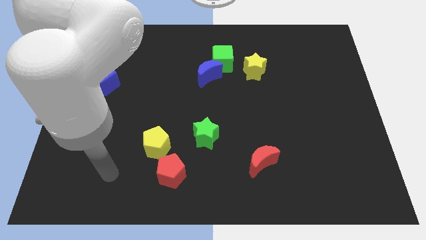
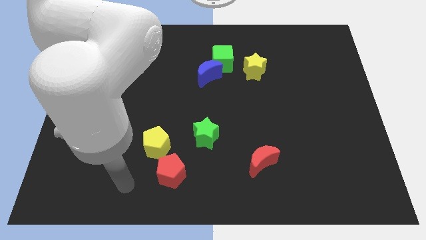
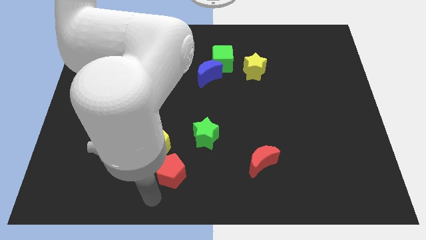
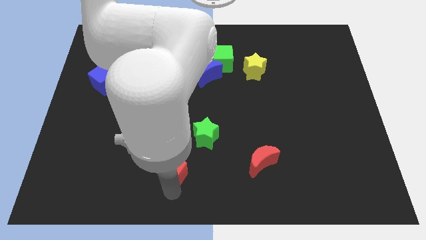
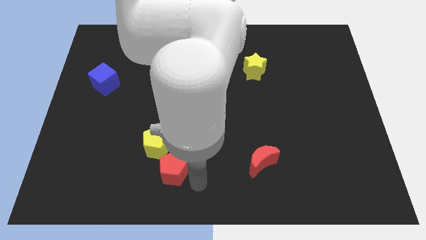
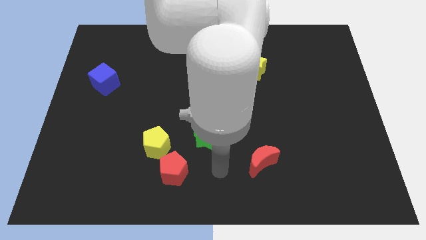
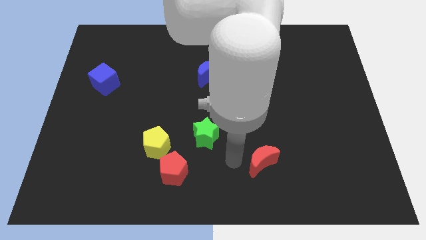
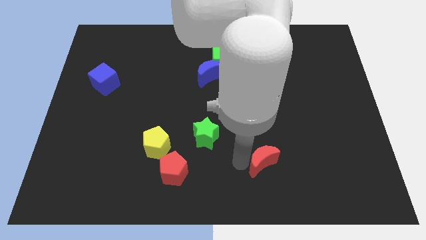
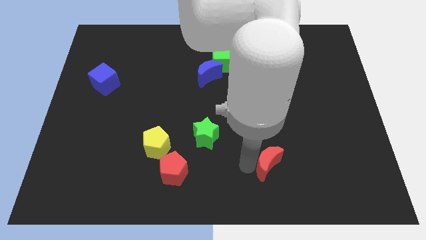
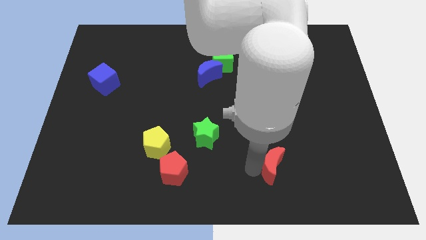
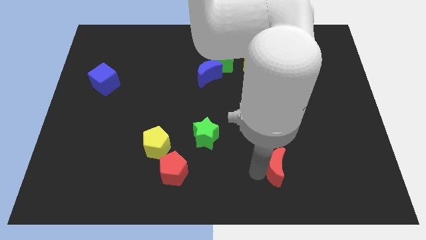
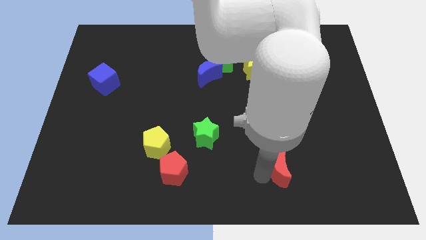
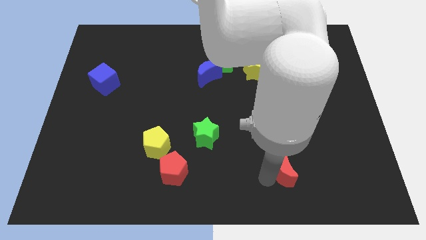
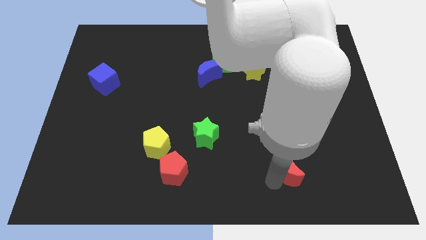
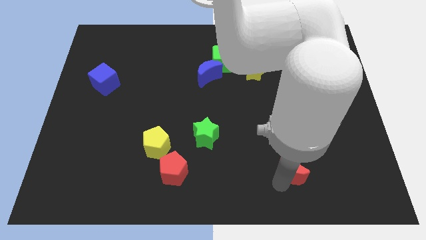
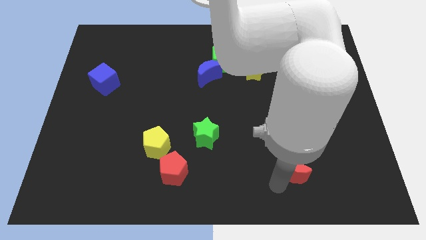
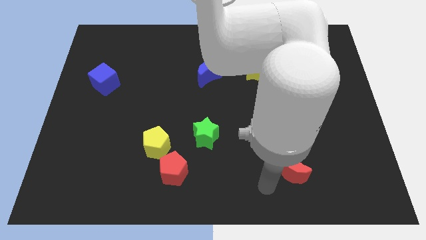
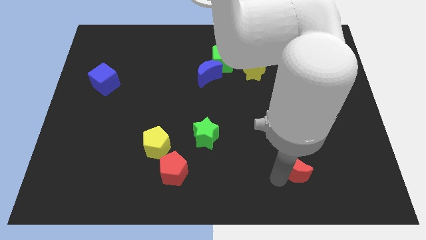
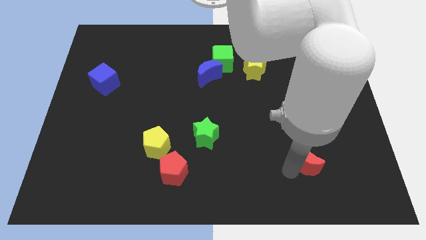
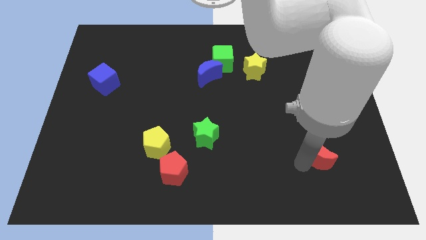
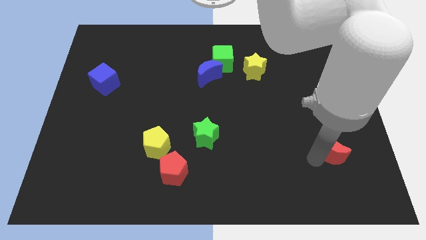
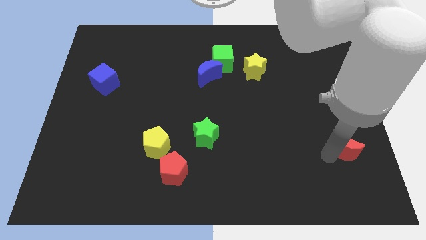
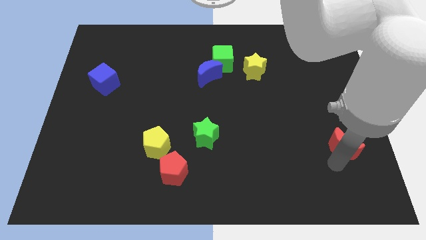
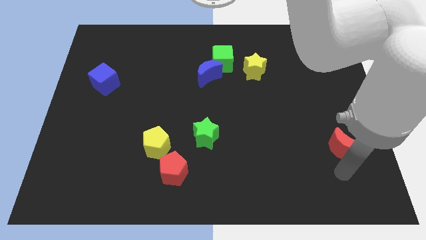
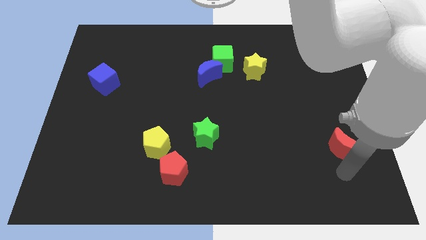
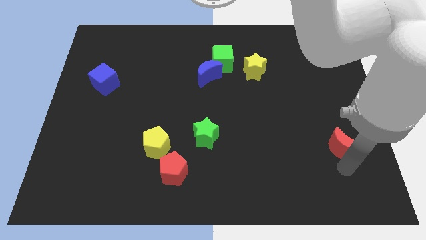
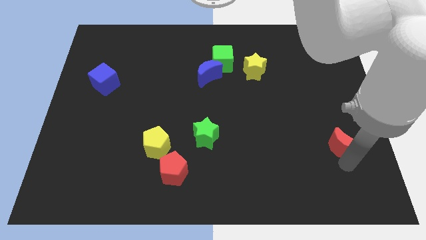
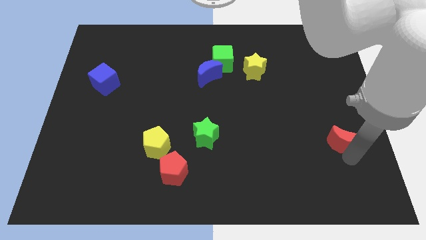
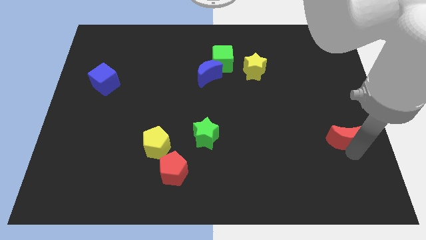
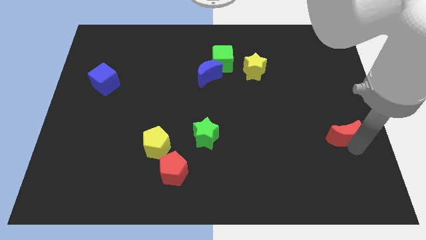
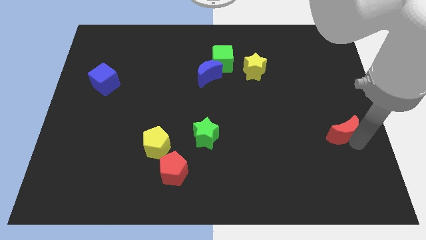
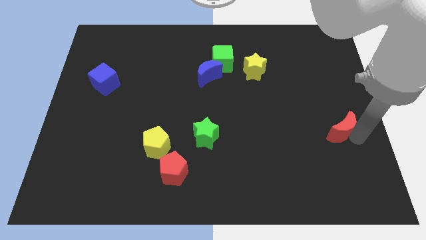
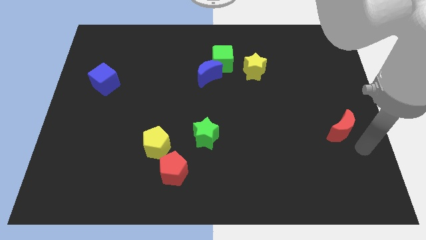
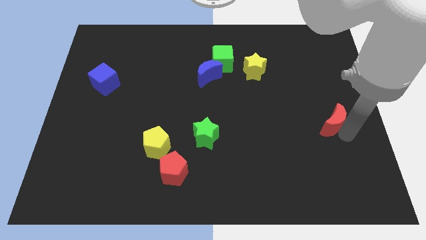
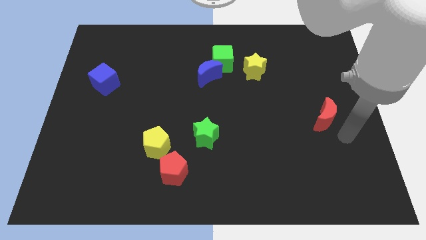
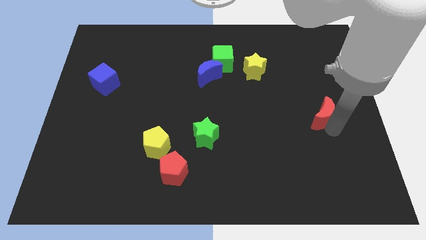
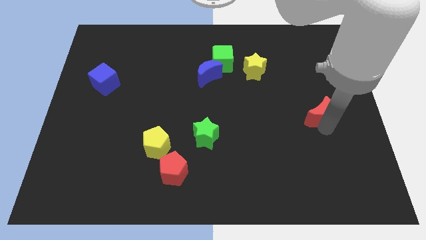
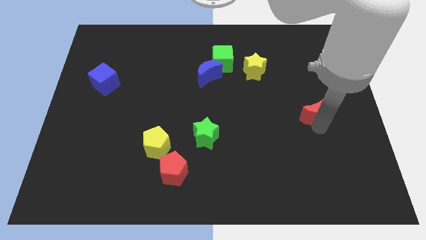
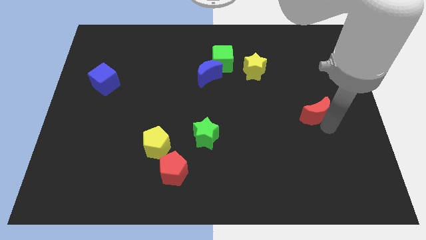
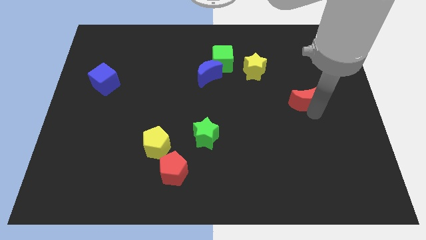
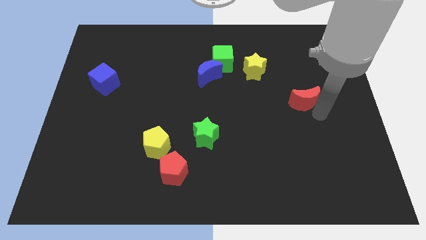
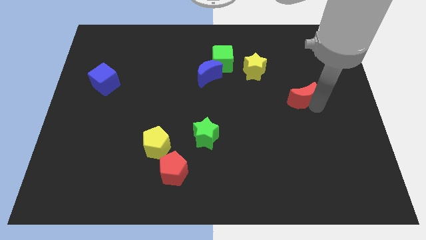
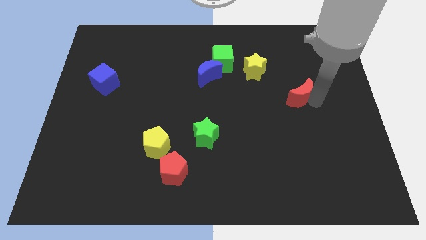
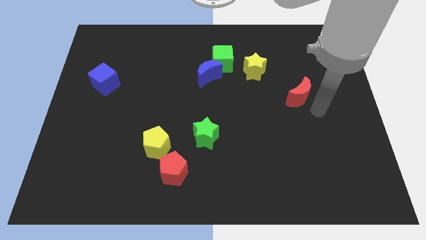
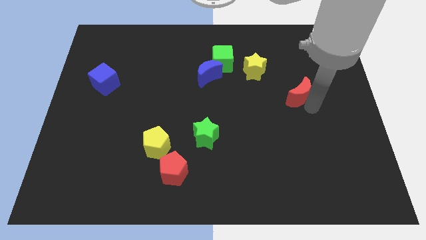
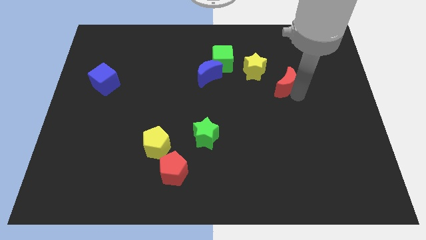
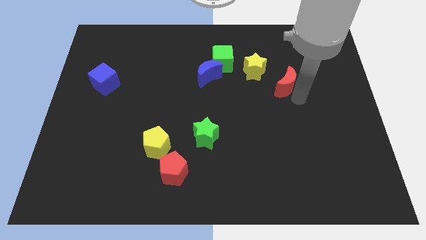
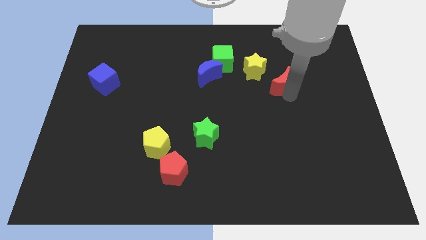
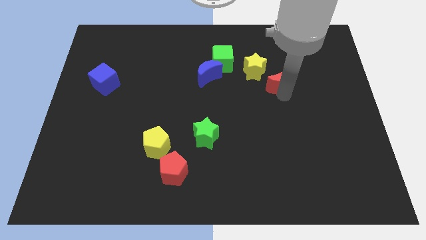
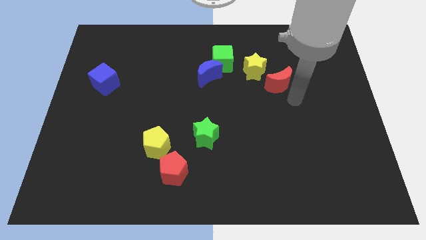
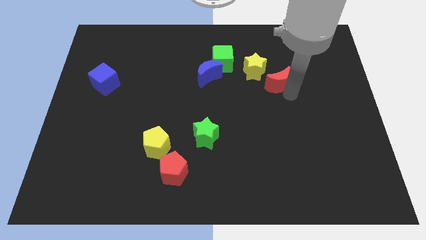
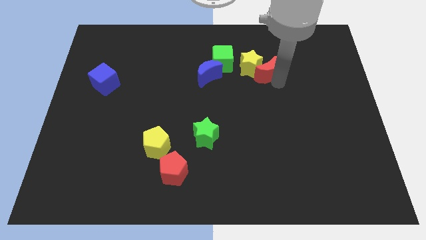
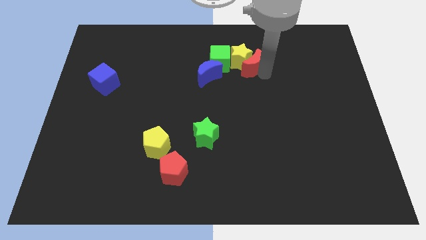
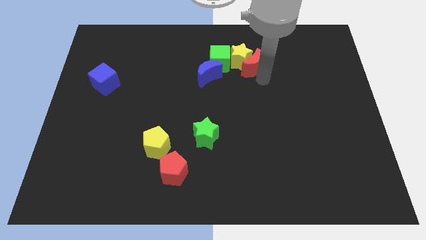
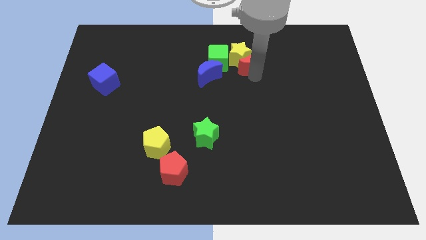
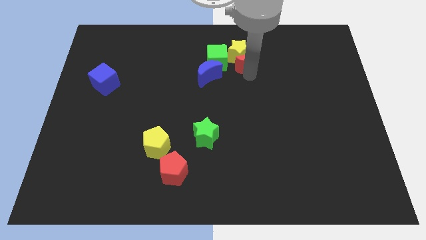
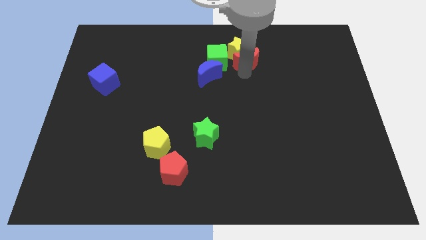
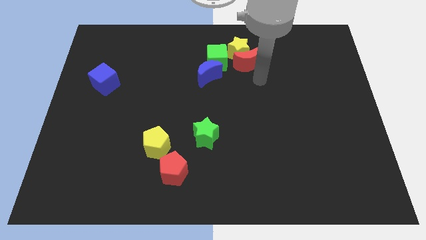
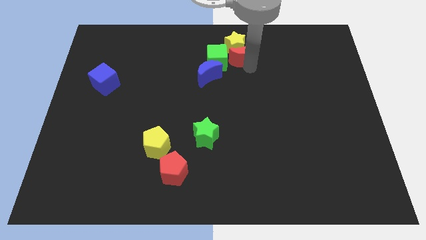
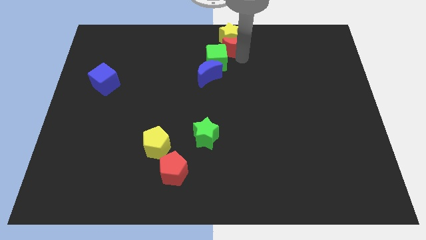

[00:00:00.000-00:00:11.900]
put the red moon to the top

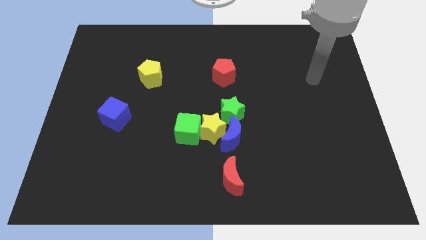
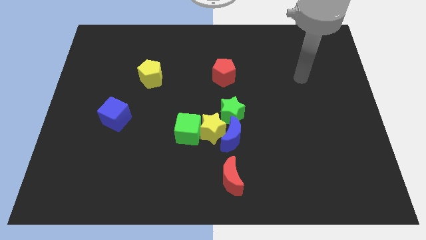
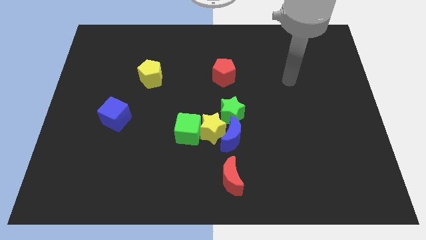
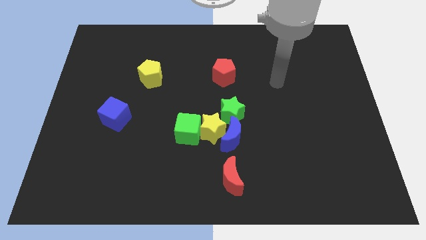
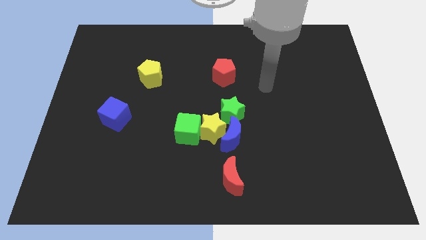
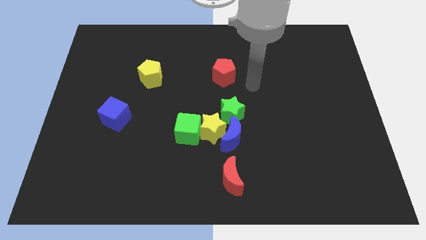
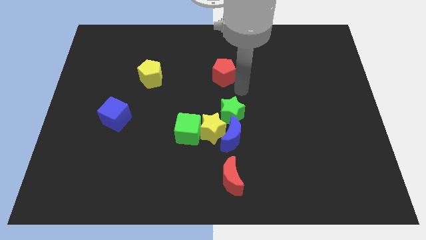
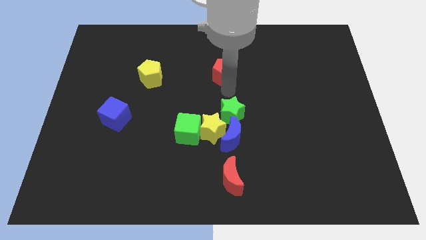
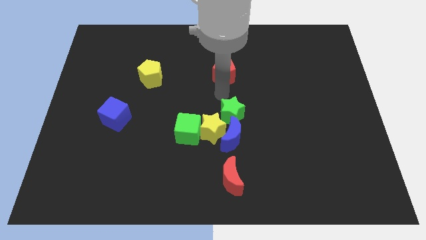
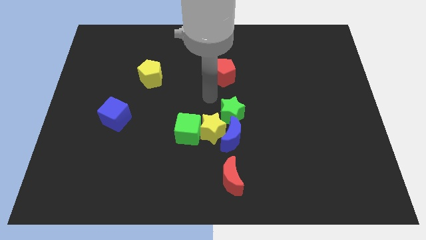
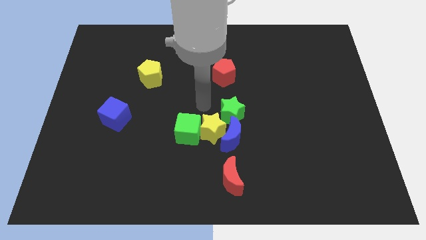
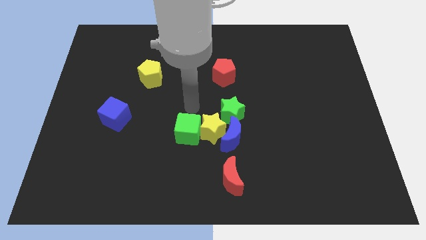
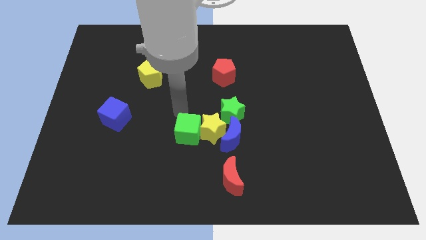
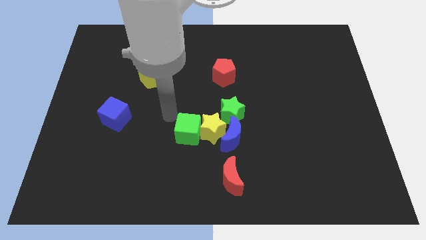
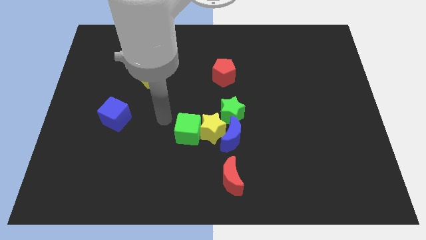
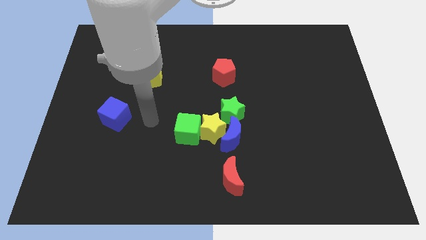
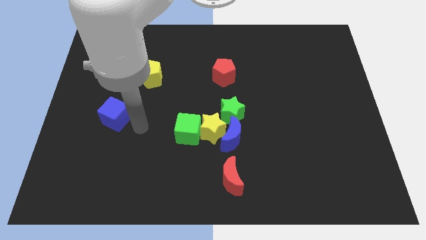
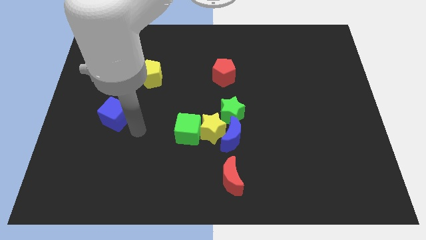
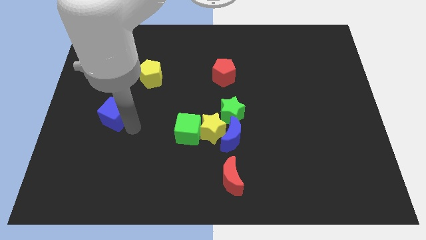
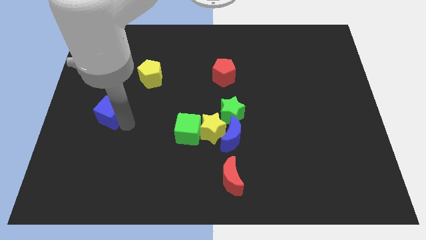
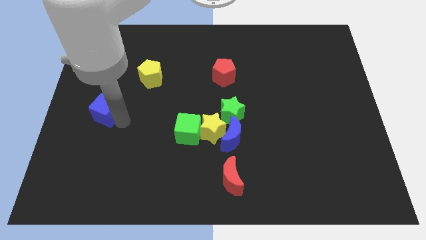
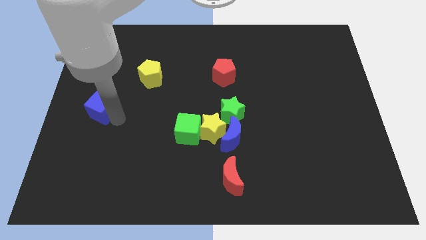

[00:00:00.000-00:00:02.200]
push the blue cube to the center left
